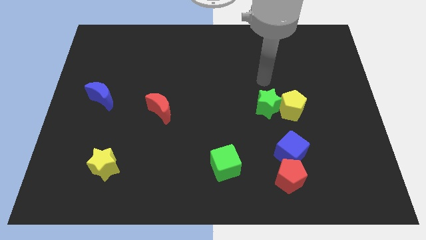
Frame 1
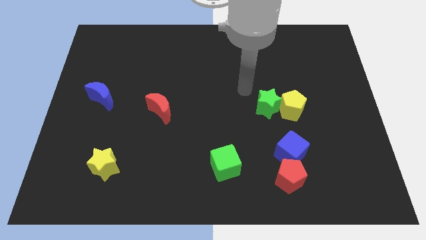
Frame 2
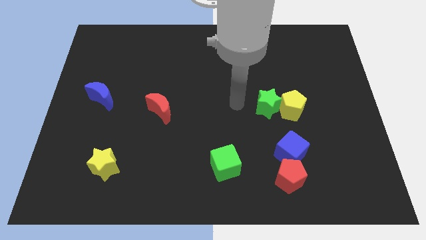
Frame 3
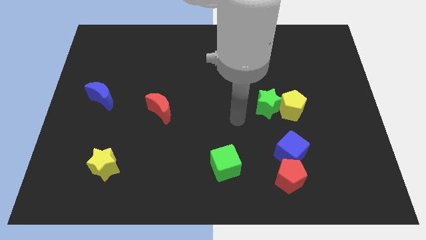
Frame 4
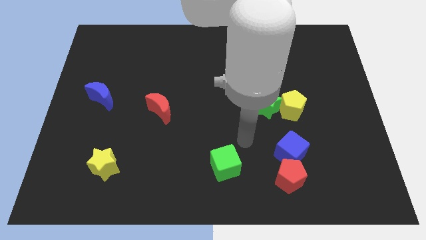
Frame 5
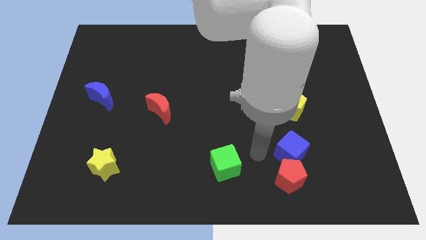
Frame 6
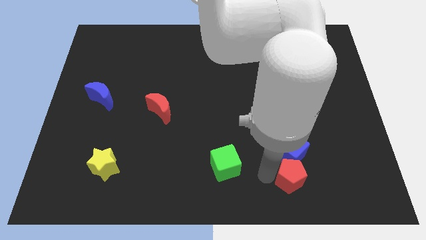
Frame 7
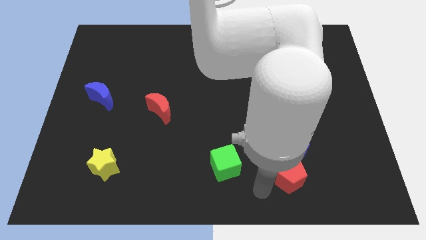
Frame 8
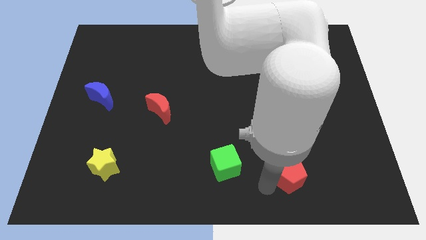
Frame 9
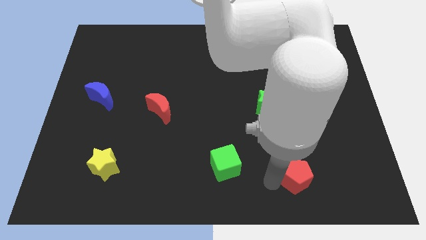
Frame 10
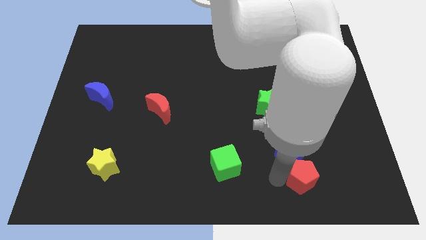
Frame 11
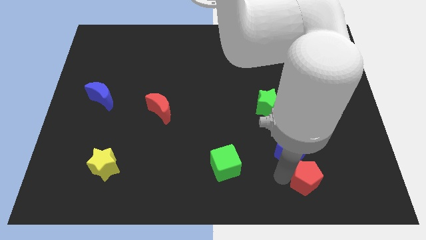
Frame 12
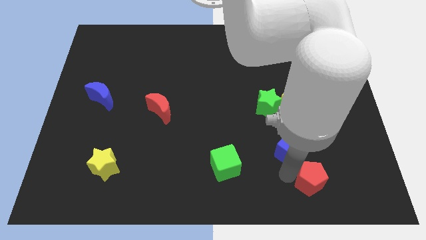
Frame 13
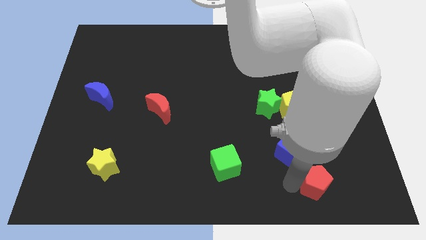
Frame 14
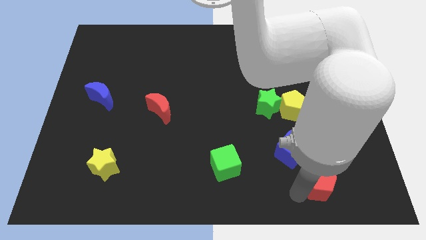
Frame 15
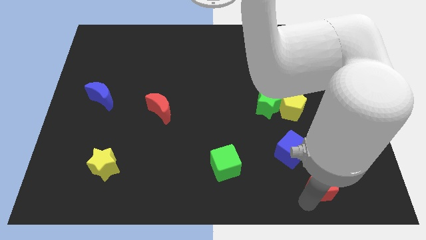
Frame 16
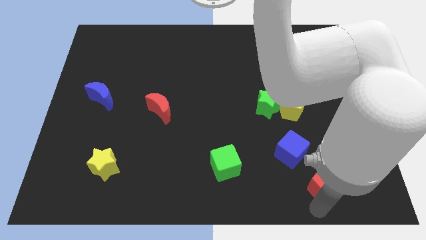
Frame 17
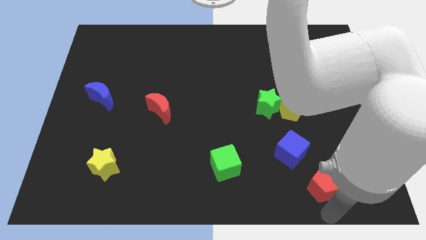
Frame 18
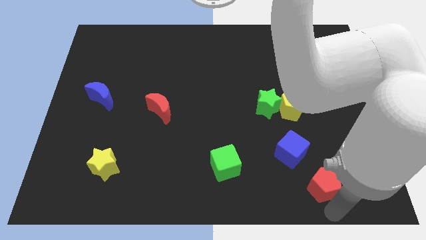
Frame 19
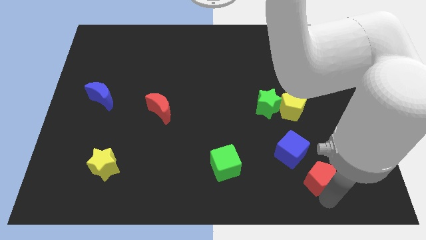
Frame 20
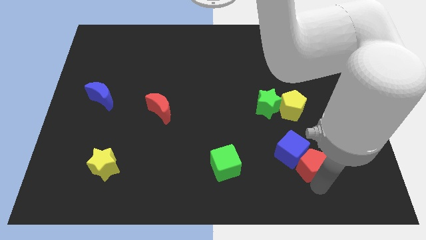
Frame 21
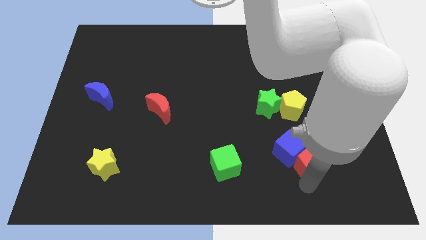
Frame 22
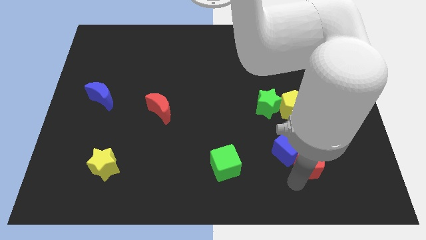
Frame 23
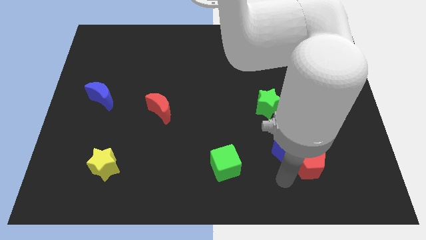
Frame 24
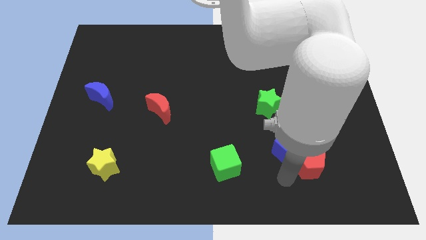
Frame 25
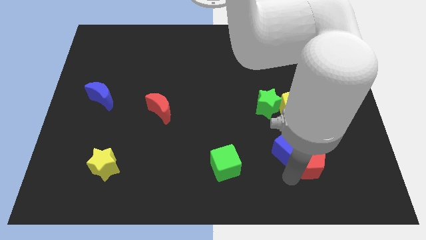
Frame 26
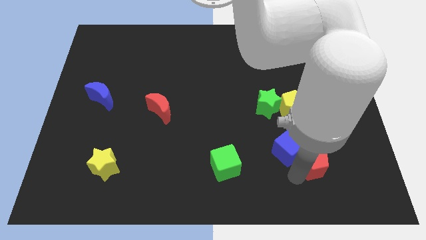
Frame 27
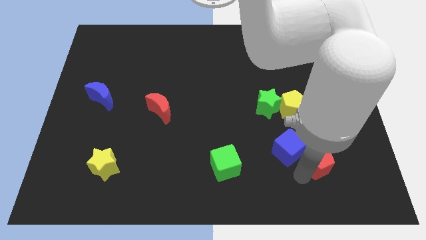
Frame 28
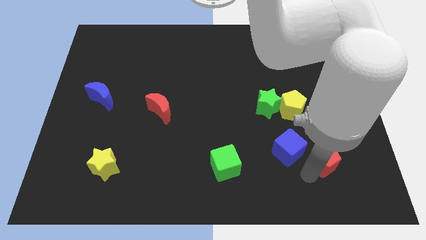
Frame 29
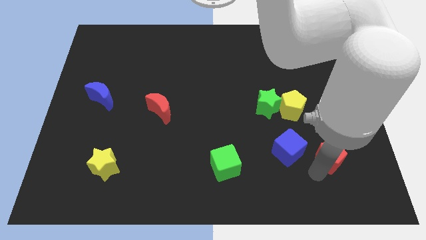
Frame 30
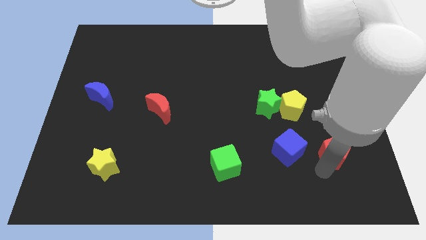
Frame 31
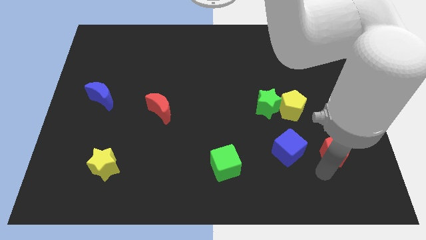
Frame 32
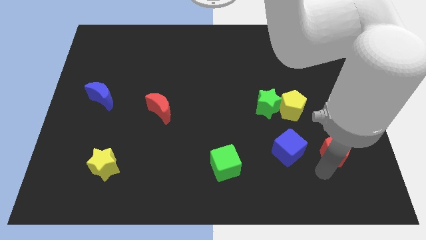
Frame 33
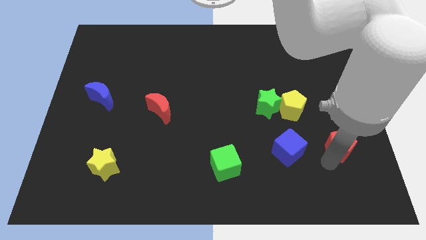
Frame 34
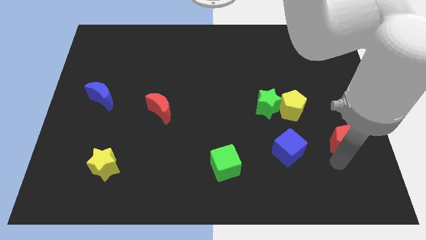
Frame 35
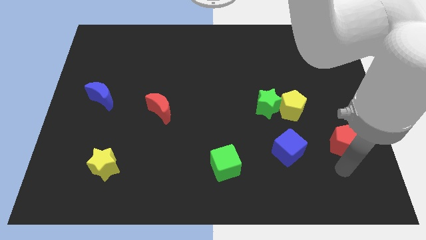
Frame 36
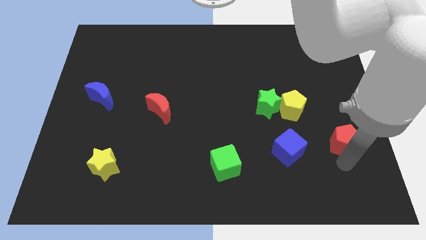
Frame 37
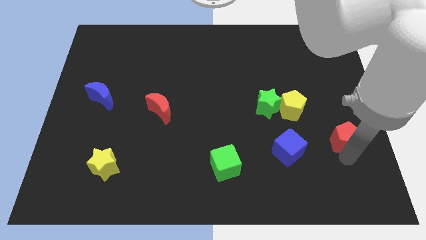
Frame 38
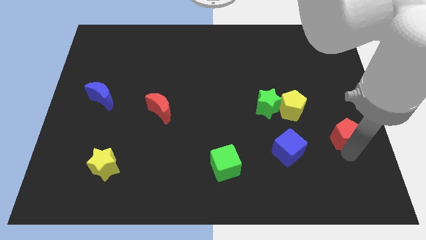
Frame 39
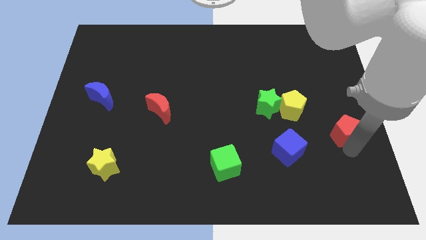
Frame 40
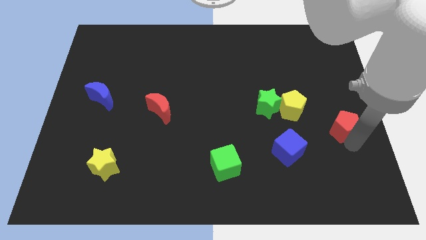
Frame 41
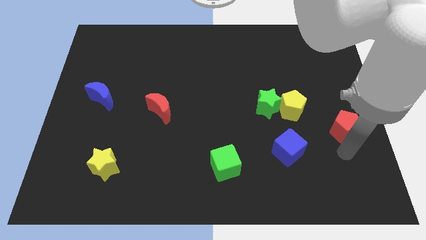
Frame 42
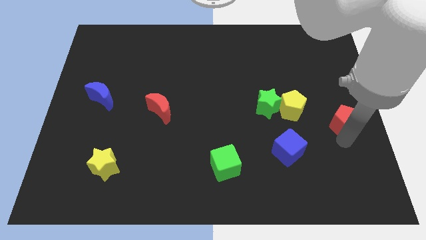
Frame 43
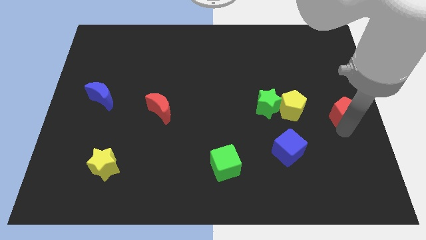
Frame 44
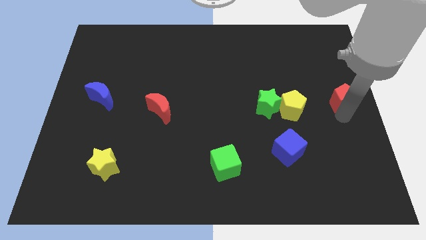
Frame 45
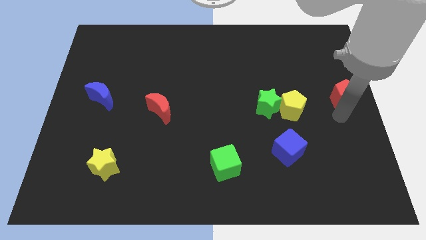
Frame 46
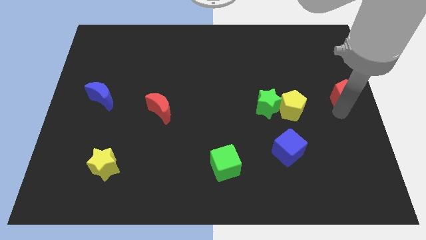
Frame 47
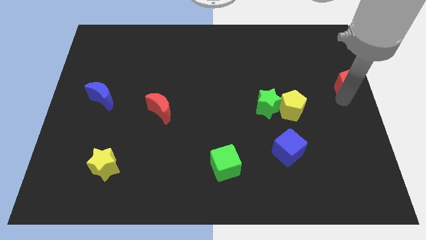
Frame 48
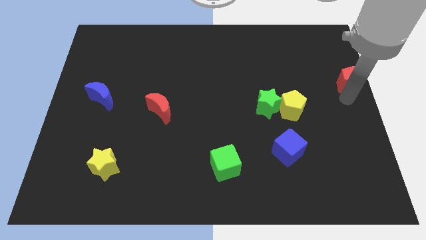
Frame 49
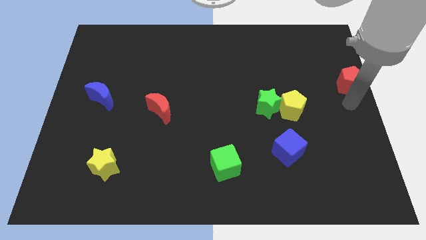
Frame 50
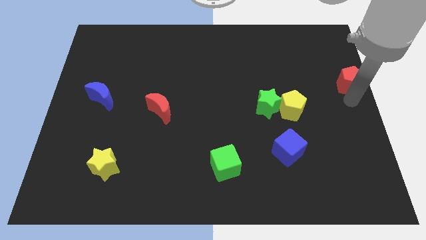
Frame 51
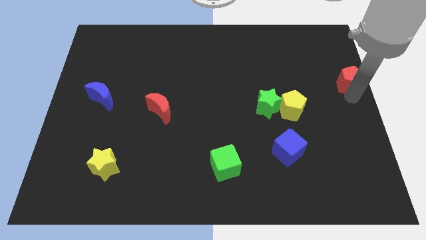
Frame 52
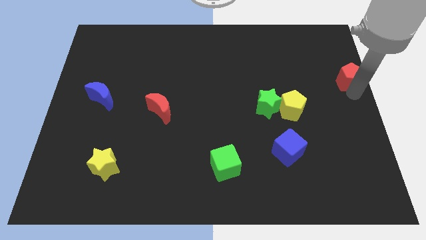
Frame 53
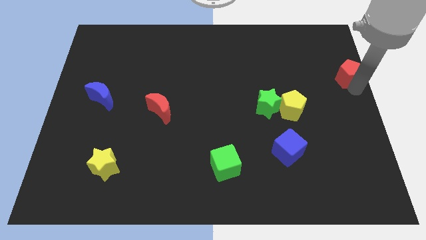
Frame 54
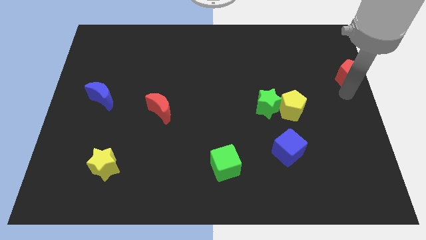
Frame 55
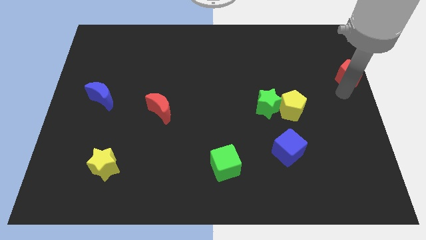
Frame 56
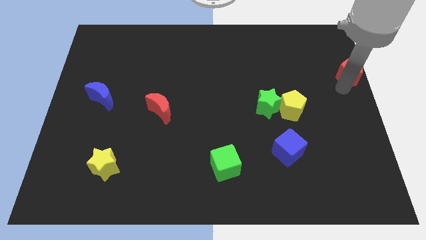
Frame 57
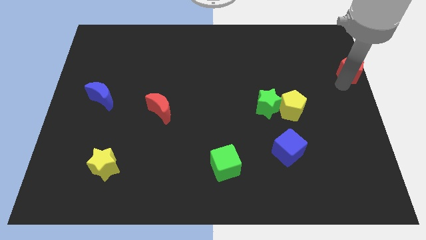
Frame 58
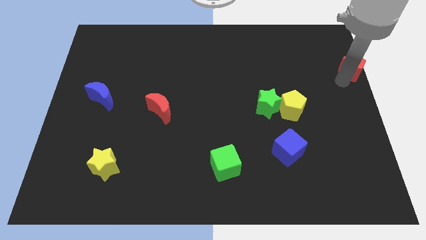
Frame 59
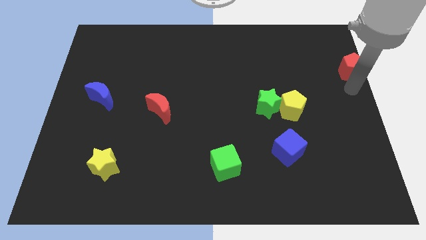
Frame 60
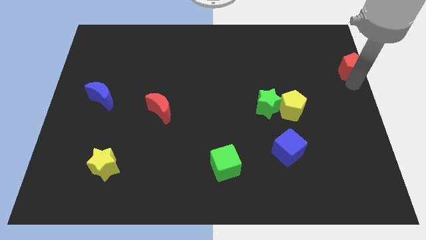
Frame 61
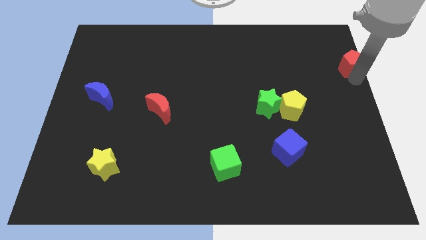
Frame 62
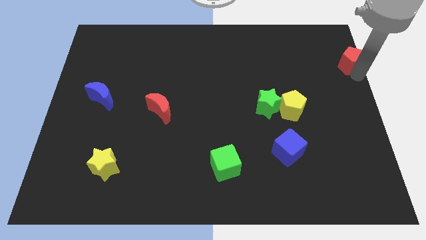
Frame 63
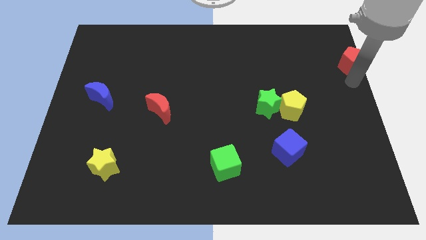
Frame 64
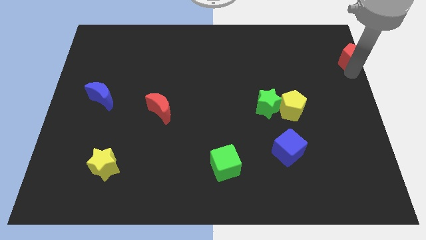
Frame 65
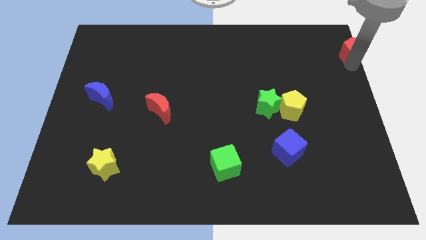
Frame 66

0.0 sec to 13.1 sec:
put the red pentagon to the top right corner
